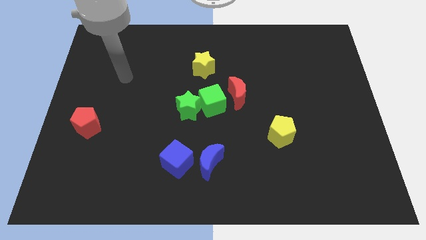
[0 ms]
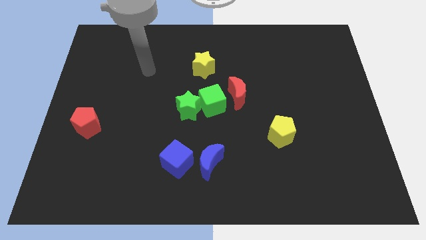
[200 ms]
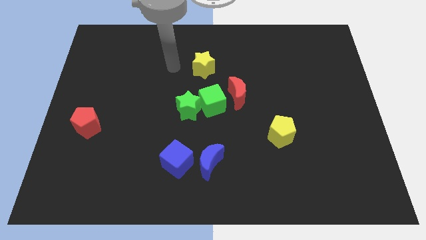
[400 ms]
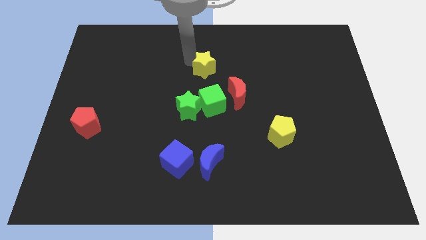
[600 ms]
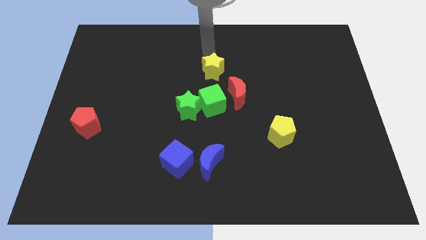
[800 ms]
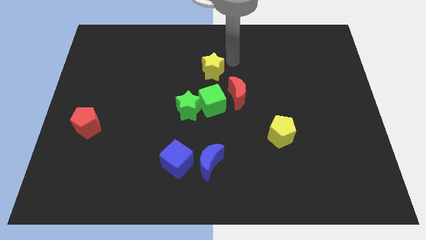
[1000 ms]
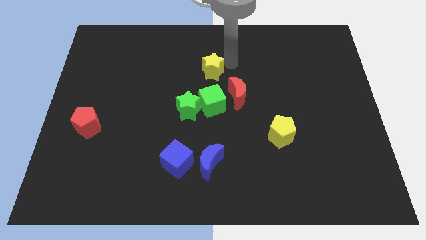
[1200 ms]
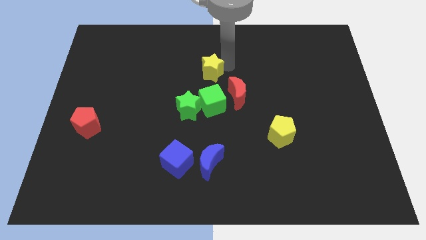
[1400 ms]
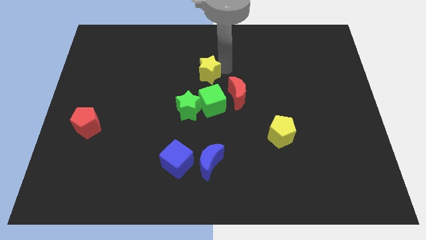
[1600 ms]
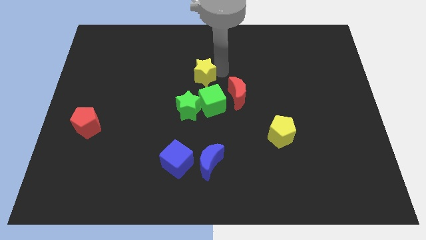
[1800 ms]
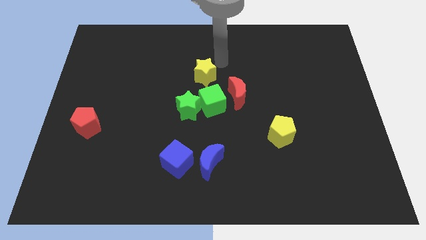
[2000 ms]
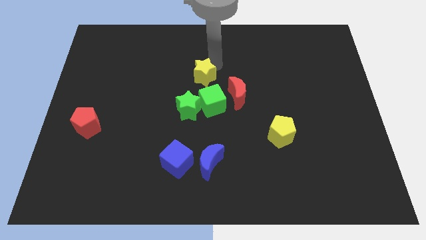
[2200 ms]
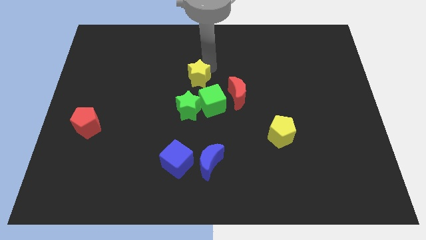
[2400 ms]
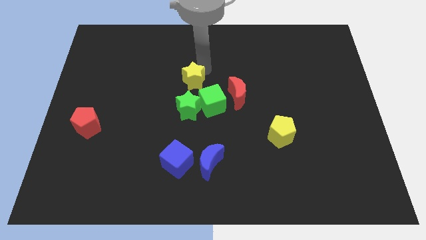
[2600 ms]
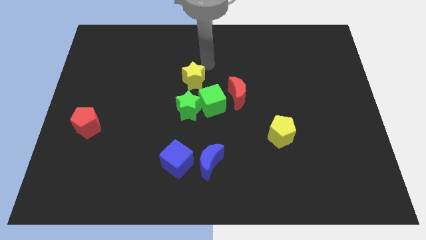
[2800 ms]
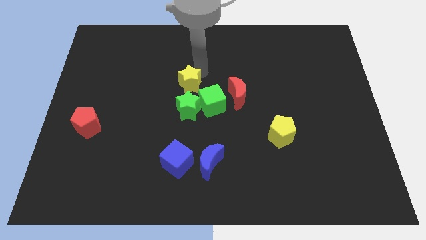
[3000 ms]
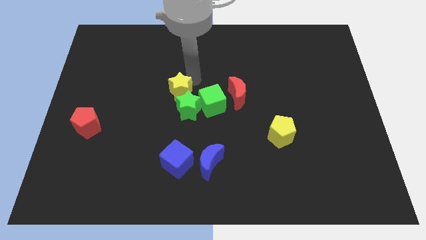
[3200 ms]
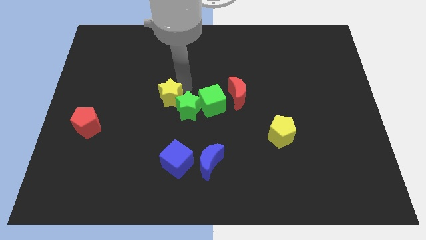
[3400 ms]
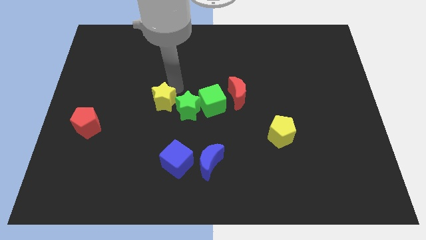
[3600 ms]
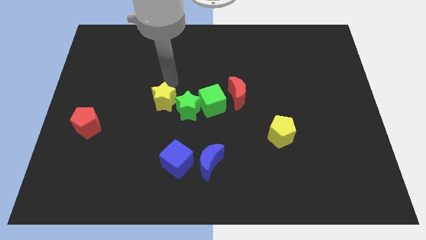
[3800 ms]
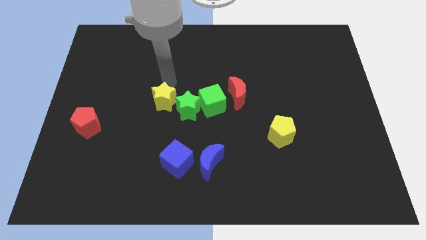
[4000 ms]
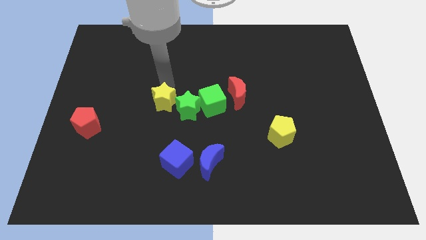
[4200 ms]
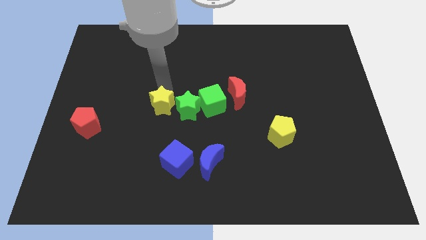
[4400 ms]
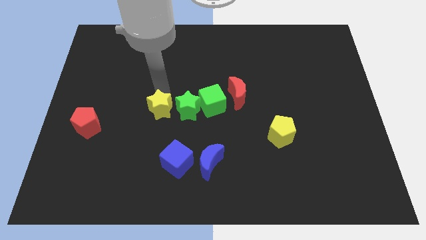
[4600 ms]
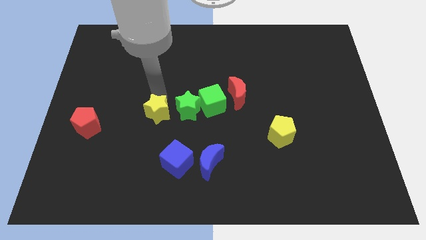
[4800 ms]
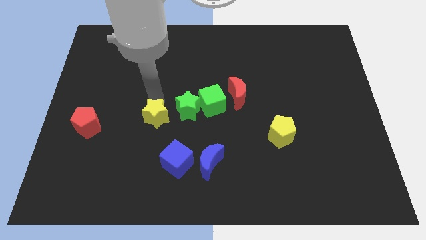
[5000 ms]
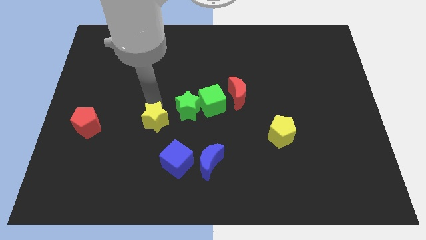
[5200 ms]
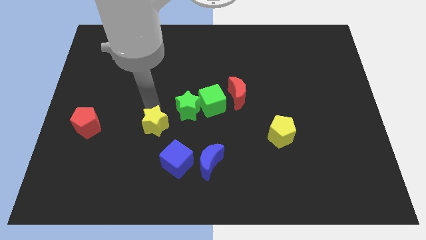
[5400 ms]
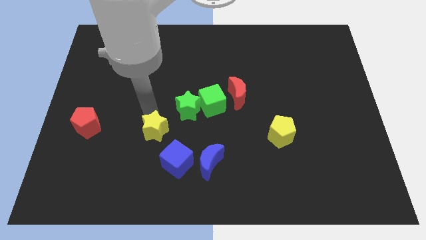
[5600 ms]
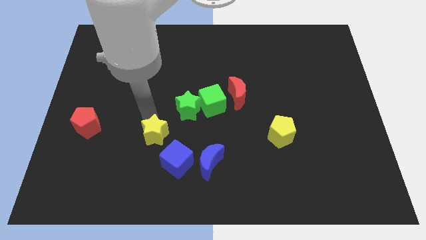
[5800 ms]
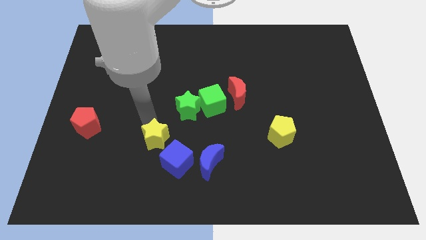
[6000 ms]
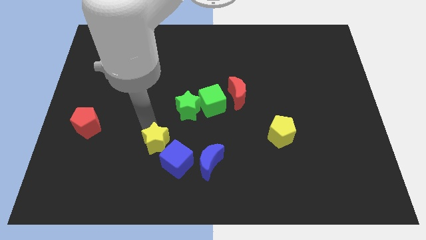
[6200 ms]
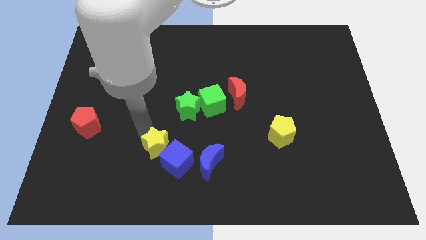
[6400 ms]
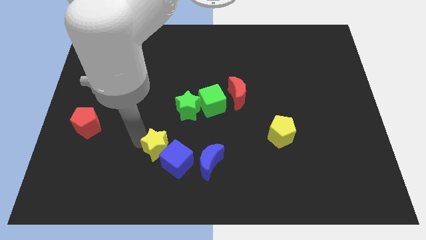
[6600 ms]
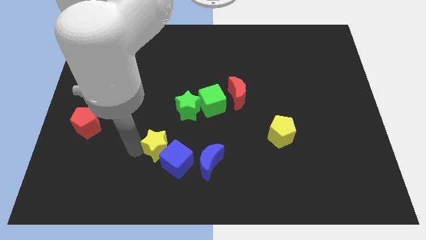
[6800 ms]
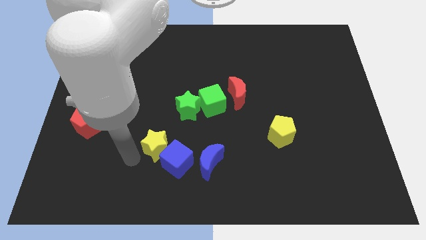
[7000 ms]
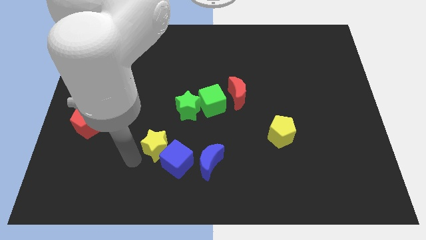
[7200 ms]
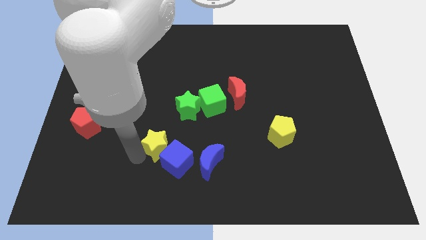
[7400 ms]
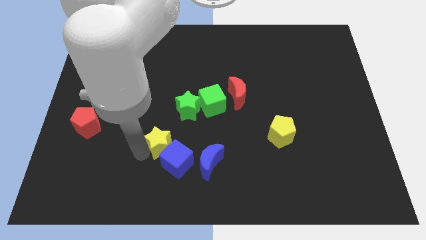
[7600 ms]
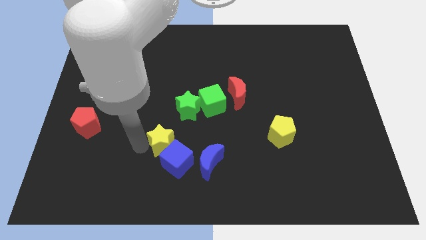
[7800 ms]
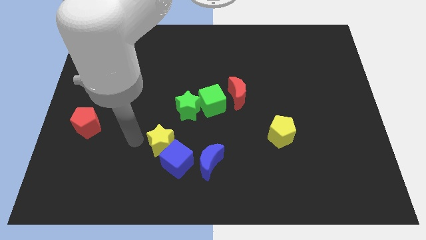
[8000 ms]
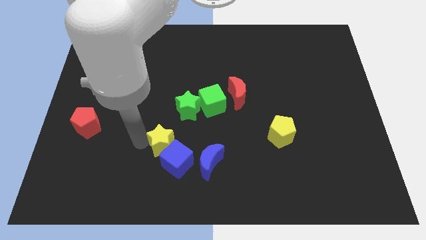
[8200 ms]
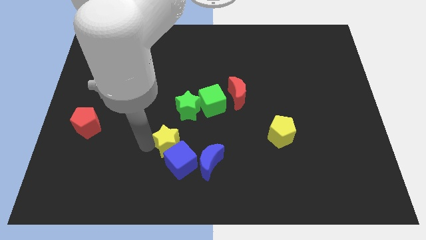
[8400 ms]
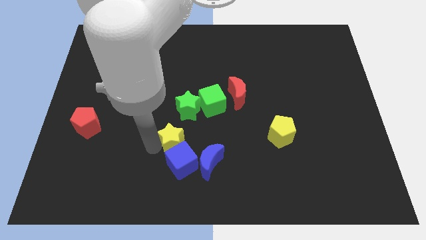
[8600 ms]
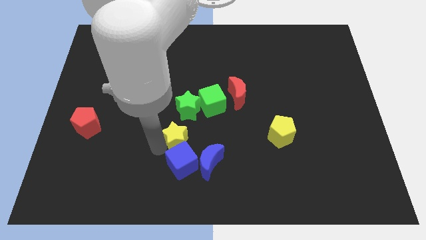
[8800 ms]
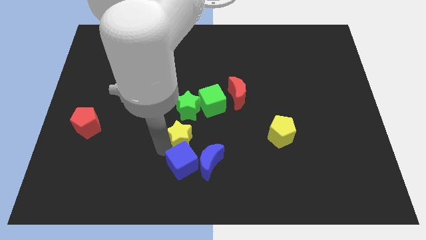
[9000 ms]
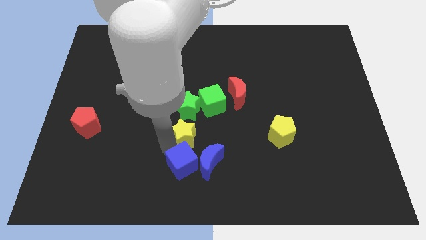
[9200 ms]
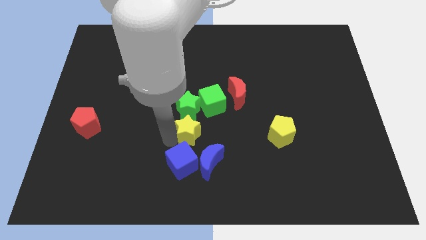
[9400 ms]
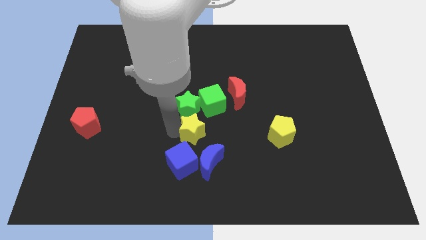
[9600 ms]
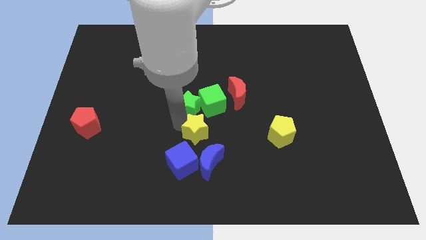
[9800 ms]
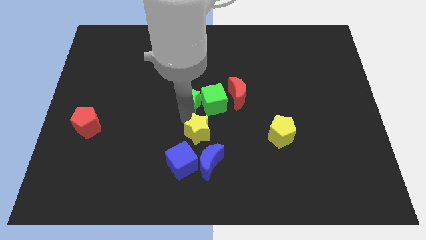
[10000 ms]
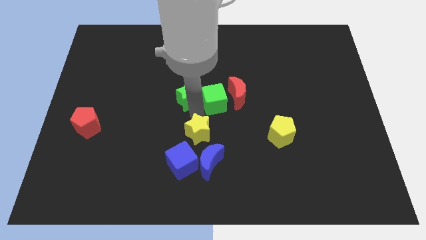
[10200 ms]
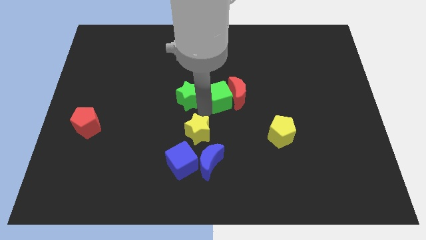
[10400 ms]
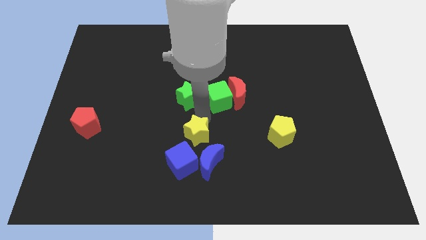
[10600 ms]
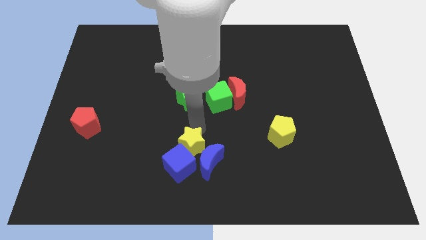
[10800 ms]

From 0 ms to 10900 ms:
put the yellow star close to the blue moon

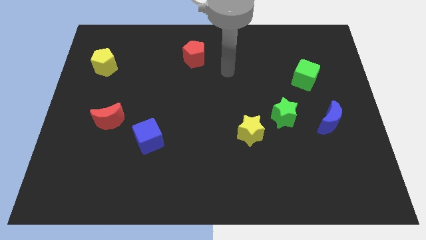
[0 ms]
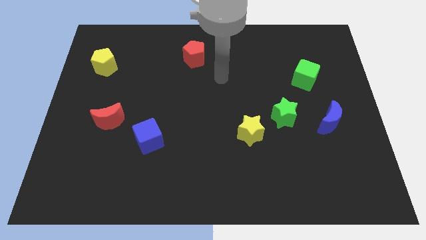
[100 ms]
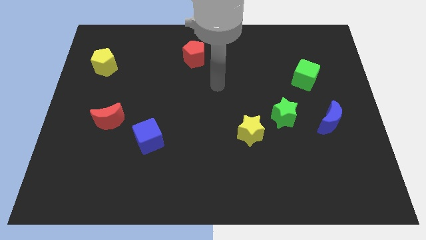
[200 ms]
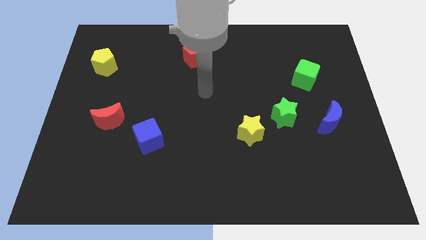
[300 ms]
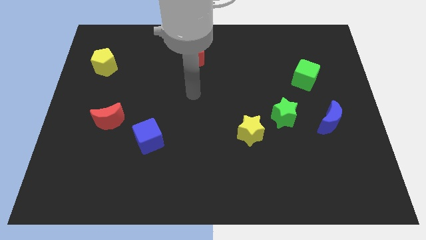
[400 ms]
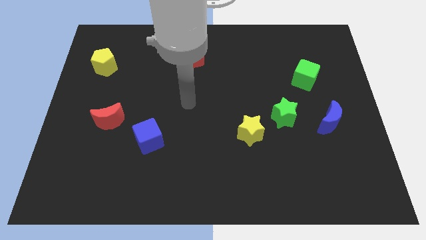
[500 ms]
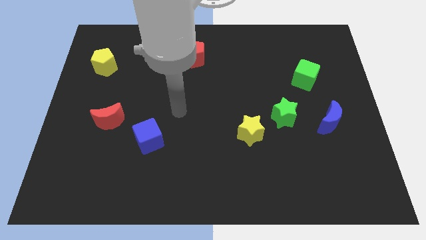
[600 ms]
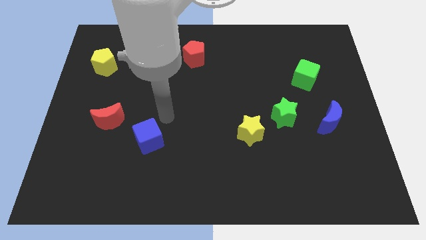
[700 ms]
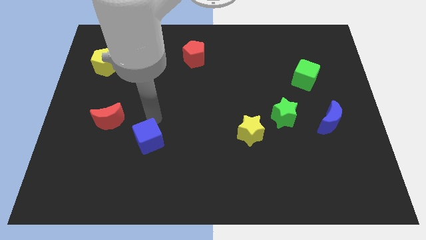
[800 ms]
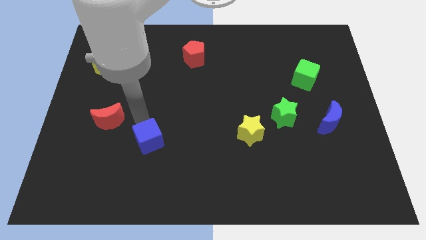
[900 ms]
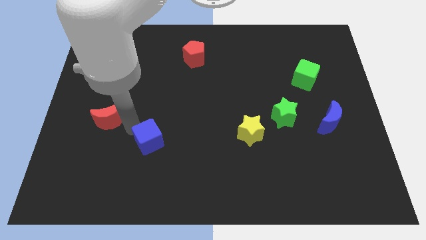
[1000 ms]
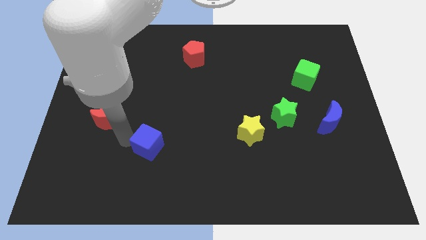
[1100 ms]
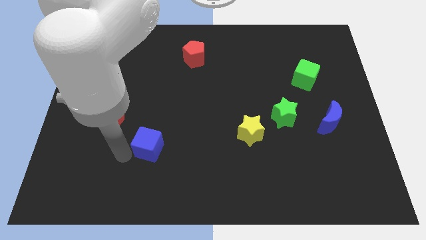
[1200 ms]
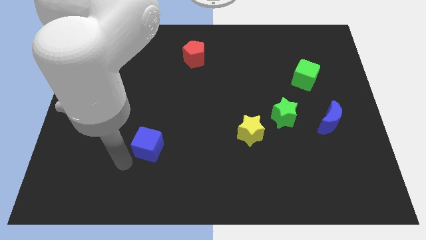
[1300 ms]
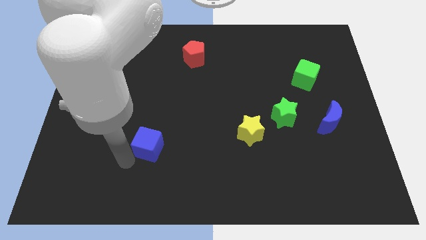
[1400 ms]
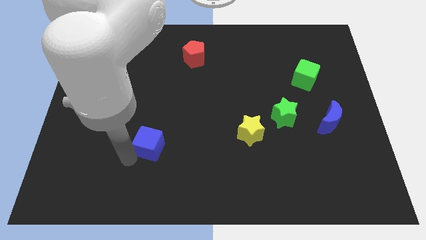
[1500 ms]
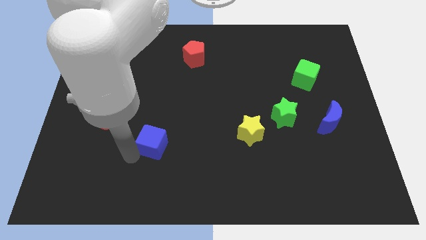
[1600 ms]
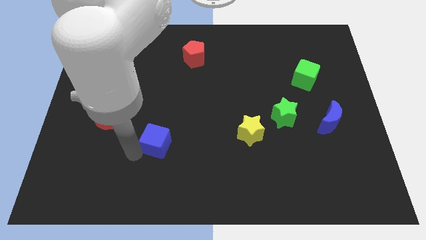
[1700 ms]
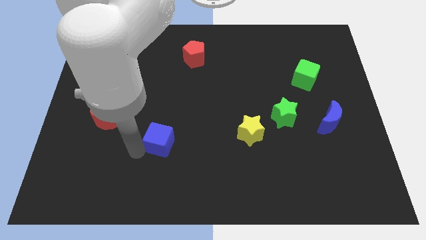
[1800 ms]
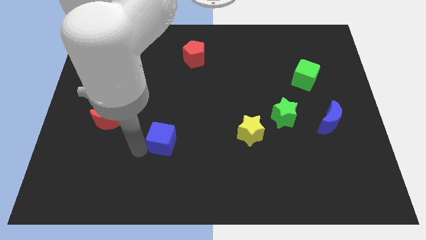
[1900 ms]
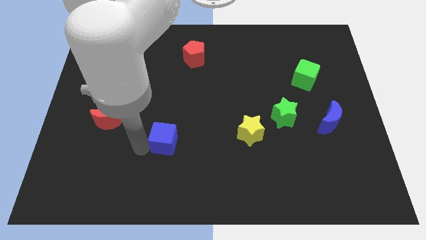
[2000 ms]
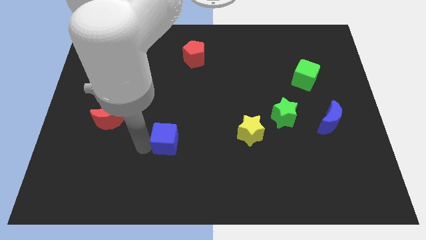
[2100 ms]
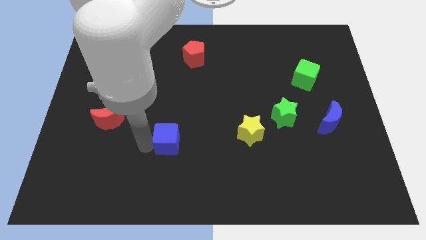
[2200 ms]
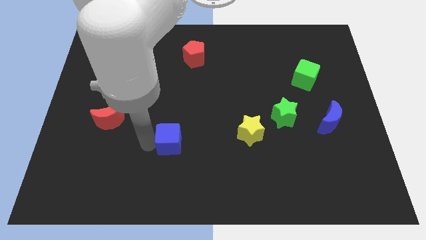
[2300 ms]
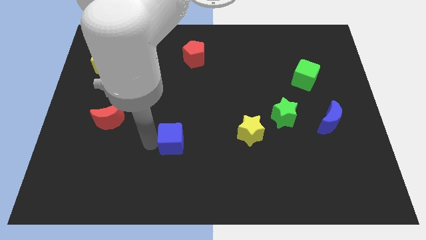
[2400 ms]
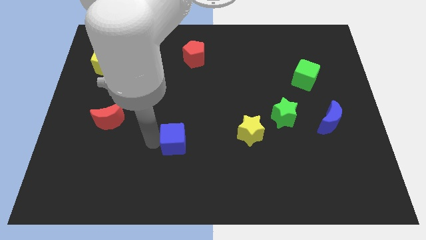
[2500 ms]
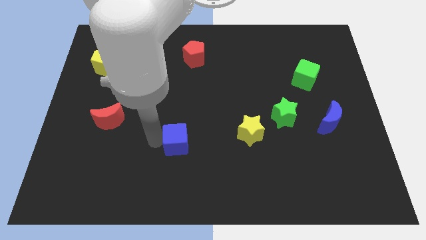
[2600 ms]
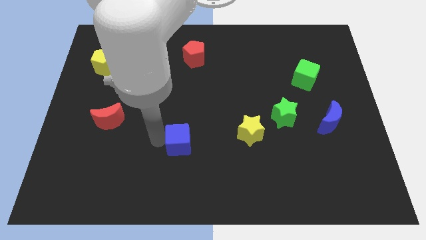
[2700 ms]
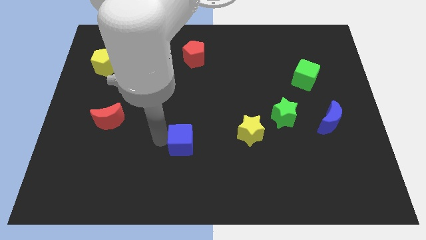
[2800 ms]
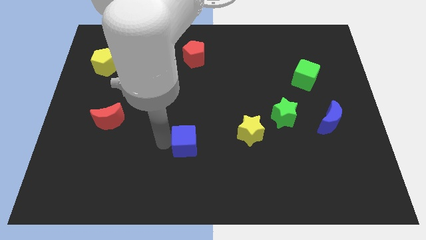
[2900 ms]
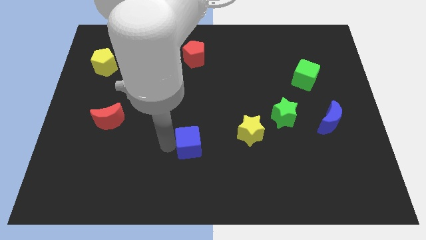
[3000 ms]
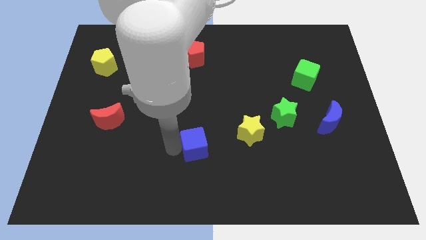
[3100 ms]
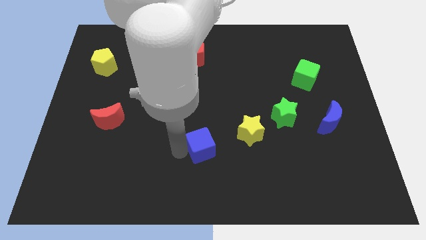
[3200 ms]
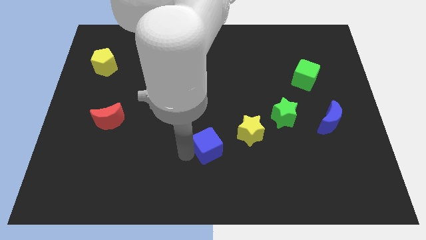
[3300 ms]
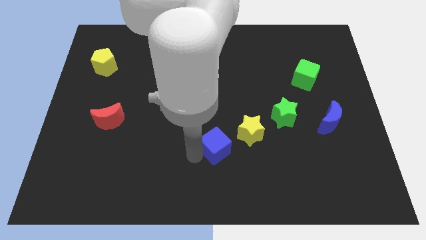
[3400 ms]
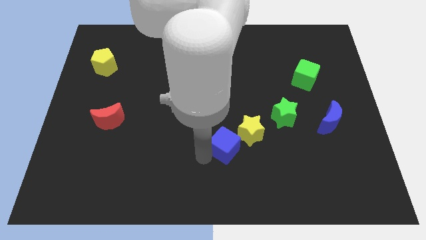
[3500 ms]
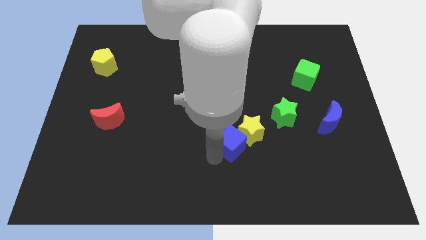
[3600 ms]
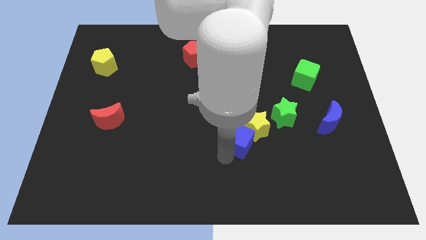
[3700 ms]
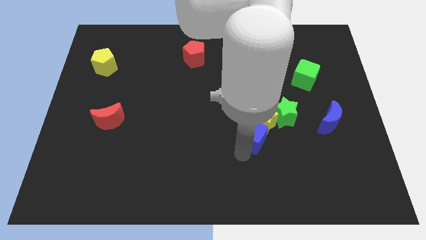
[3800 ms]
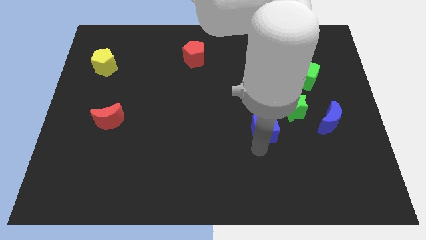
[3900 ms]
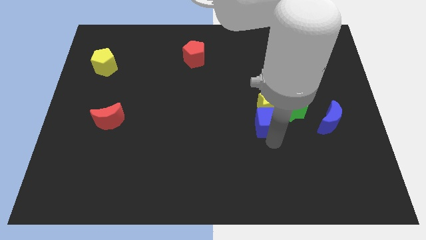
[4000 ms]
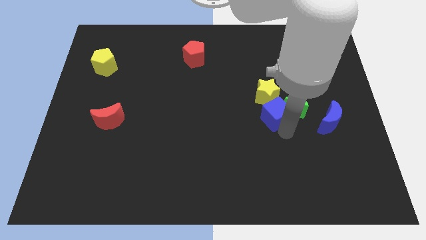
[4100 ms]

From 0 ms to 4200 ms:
move the blue cube towards the green star
